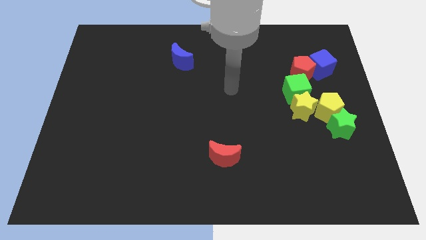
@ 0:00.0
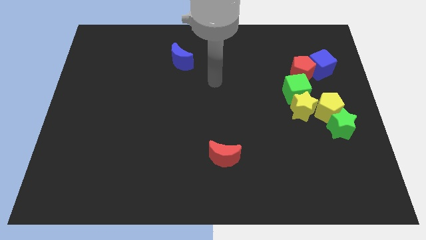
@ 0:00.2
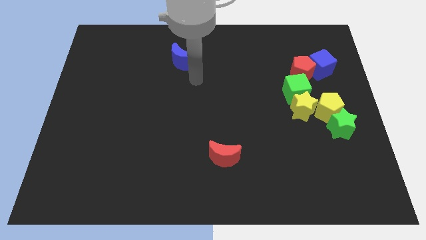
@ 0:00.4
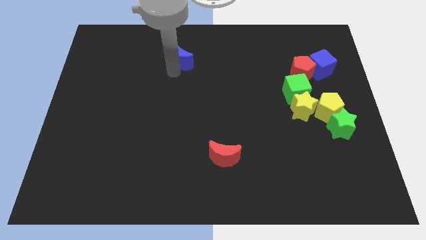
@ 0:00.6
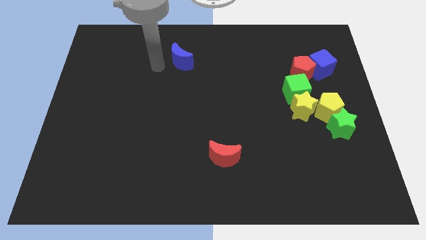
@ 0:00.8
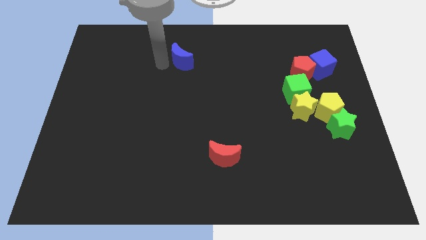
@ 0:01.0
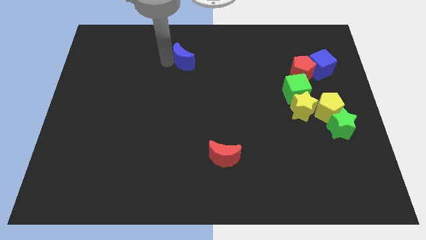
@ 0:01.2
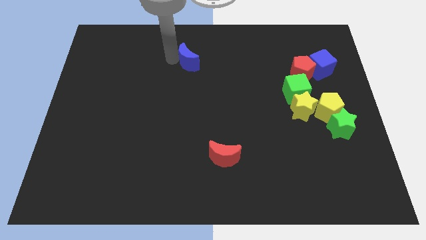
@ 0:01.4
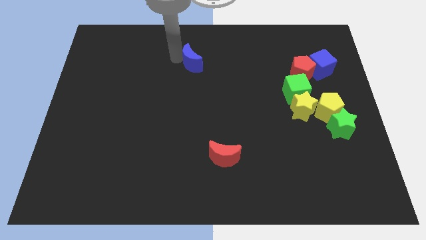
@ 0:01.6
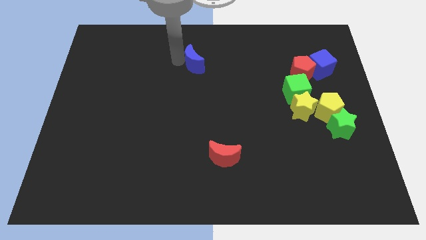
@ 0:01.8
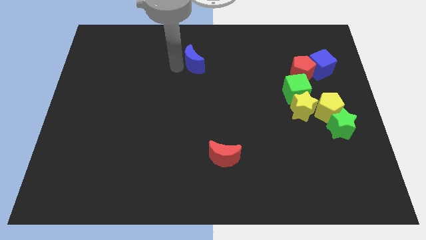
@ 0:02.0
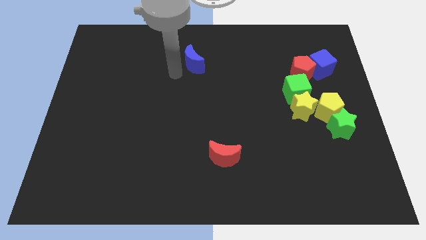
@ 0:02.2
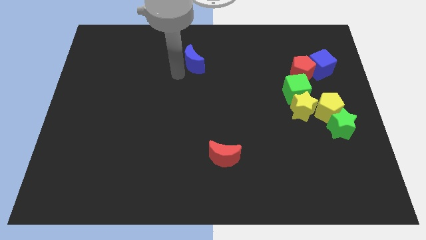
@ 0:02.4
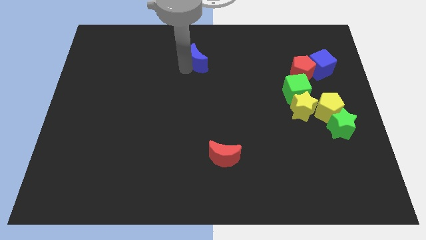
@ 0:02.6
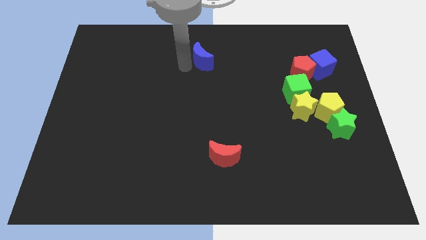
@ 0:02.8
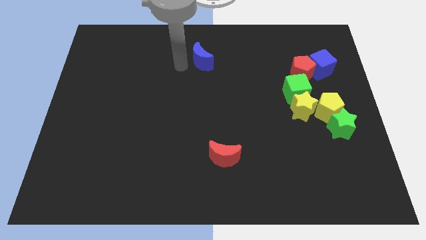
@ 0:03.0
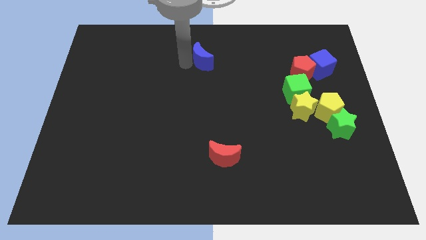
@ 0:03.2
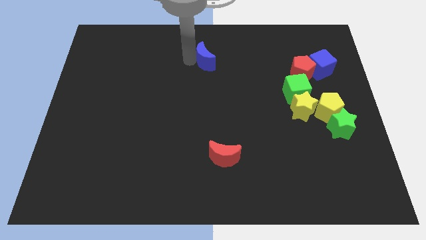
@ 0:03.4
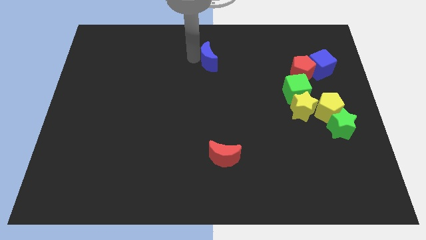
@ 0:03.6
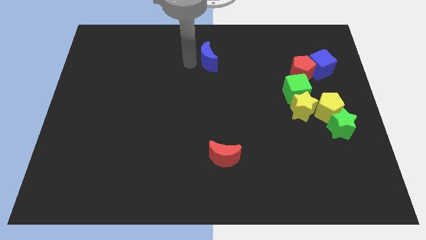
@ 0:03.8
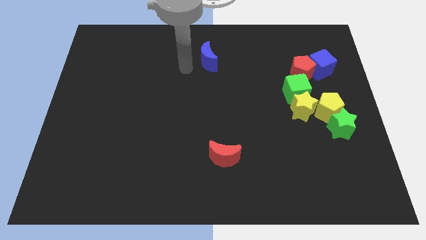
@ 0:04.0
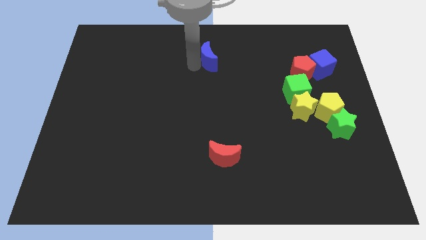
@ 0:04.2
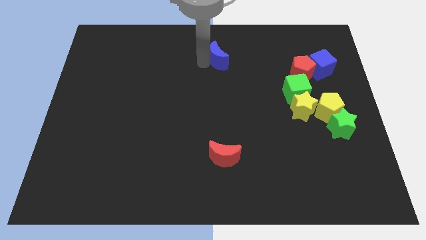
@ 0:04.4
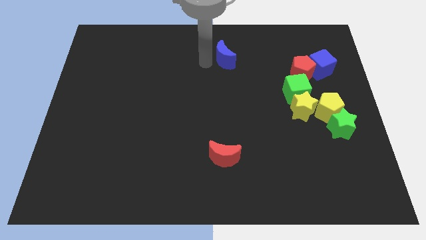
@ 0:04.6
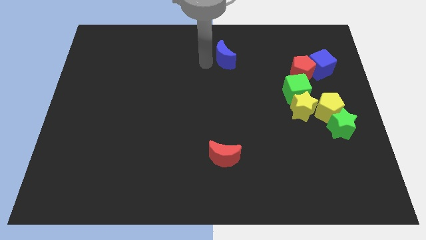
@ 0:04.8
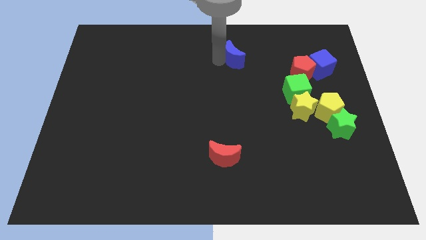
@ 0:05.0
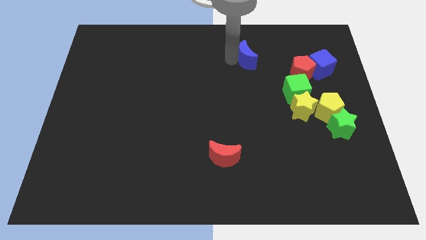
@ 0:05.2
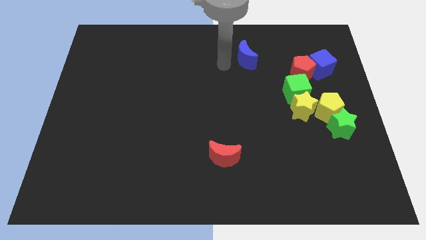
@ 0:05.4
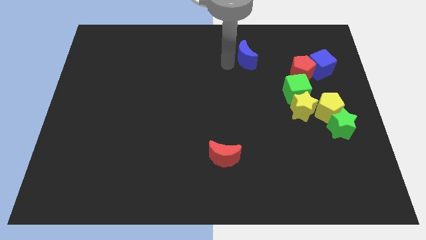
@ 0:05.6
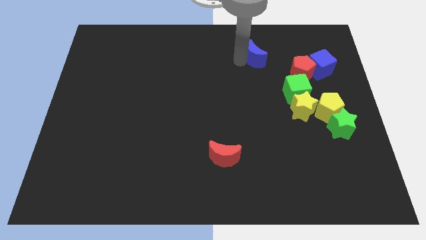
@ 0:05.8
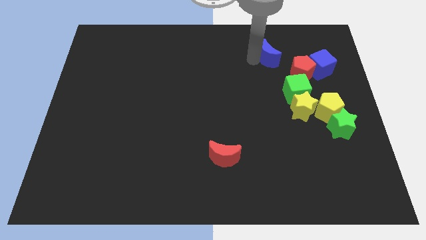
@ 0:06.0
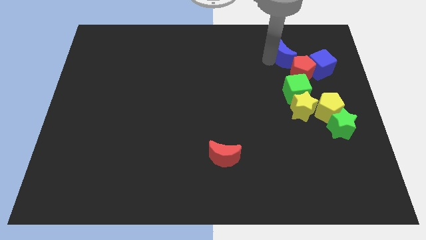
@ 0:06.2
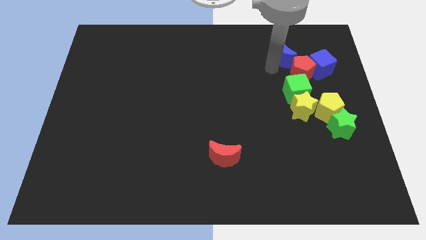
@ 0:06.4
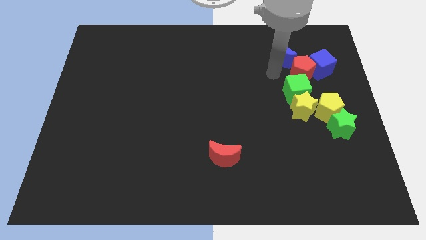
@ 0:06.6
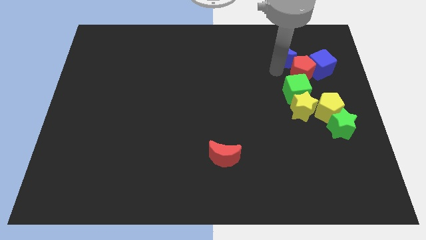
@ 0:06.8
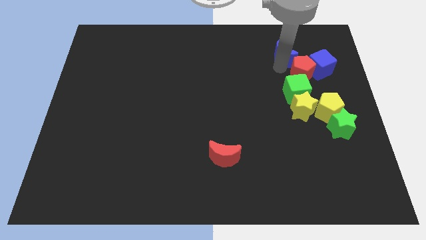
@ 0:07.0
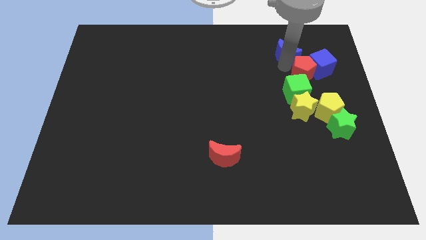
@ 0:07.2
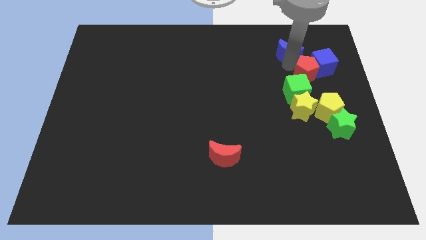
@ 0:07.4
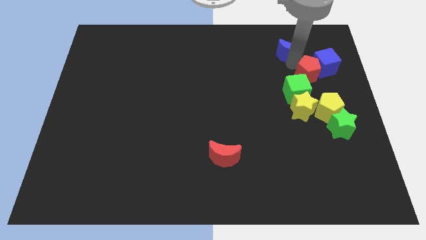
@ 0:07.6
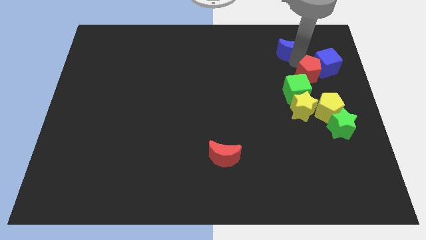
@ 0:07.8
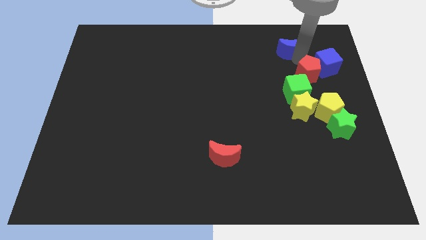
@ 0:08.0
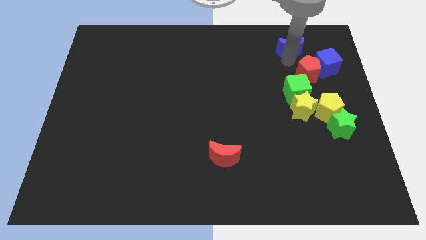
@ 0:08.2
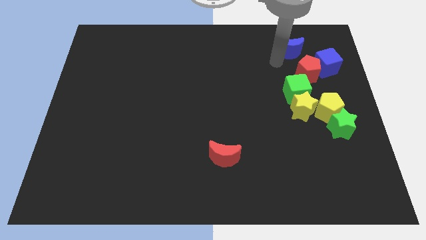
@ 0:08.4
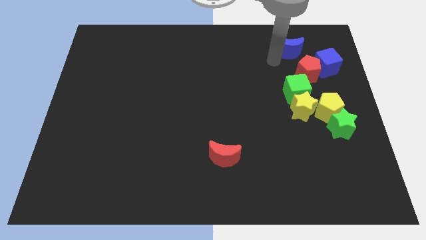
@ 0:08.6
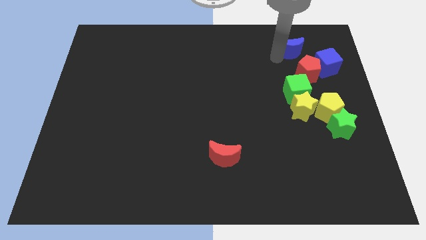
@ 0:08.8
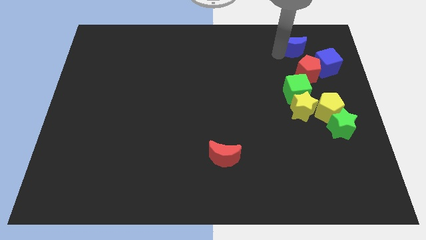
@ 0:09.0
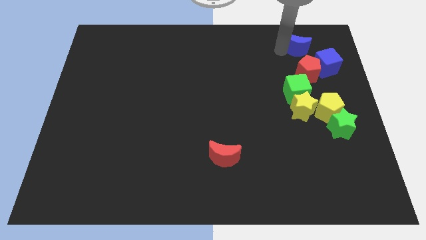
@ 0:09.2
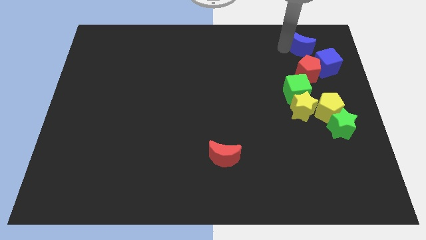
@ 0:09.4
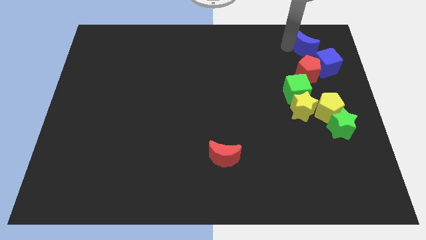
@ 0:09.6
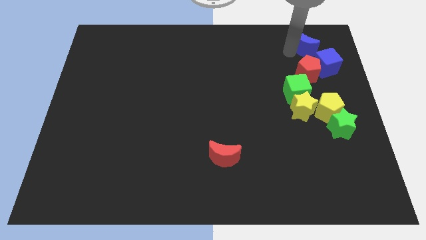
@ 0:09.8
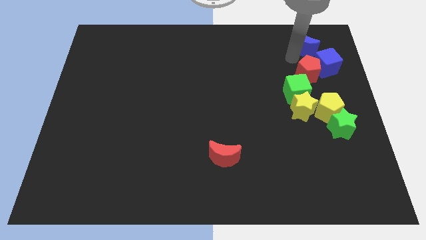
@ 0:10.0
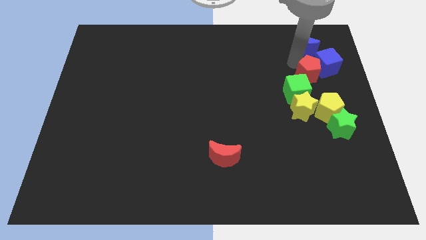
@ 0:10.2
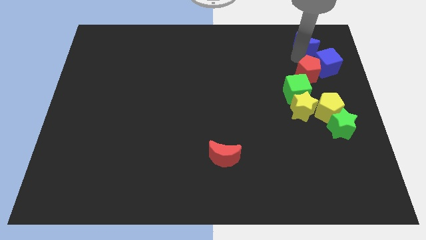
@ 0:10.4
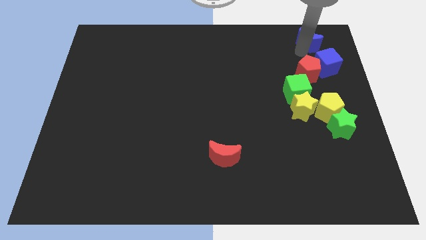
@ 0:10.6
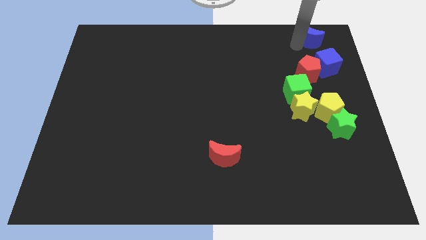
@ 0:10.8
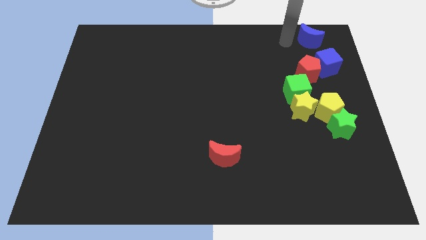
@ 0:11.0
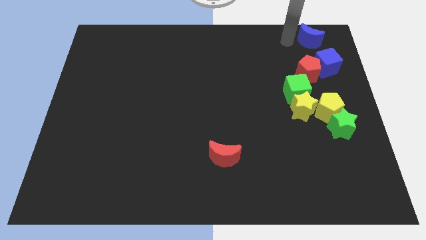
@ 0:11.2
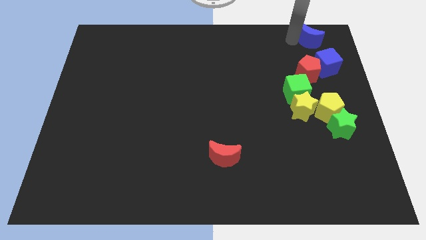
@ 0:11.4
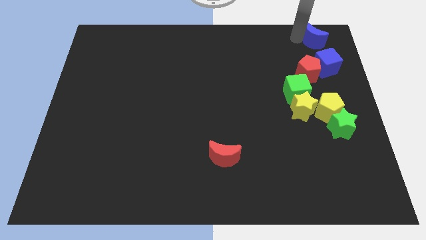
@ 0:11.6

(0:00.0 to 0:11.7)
put the blue moon to the top right corner

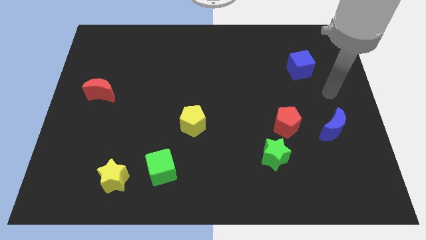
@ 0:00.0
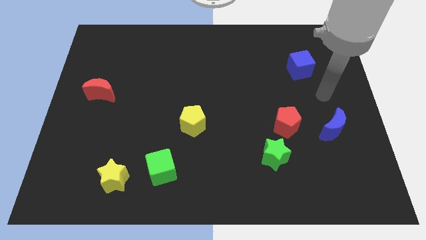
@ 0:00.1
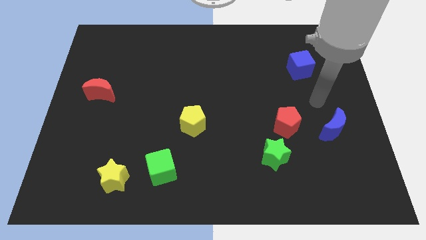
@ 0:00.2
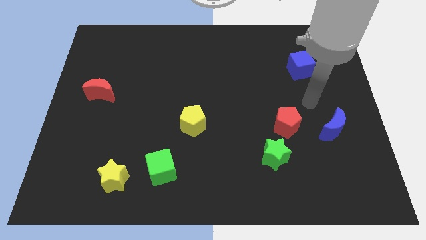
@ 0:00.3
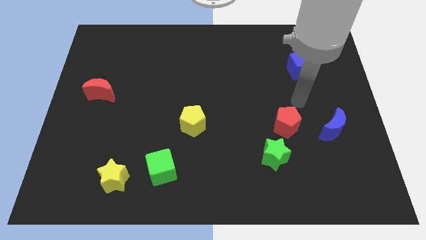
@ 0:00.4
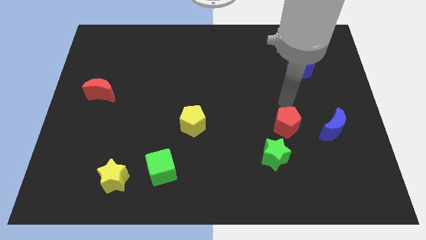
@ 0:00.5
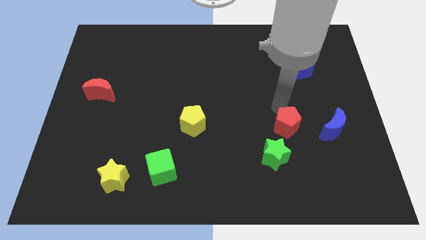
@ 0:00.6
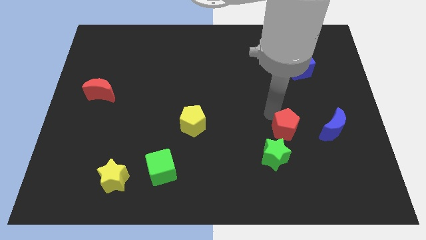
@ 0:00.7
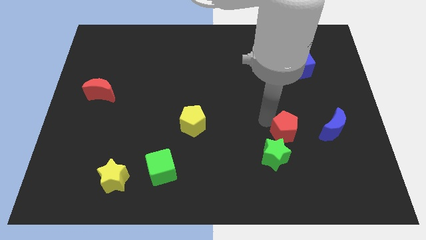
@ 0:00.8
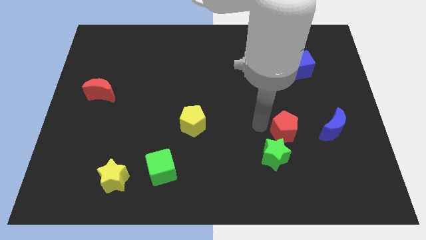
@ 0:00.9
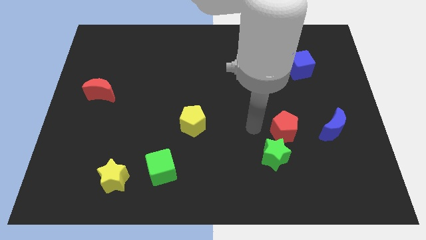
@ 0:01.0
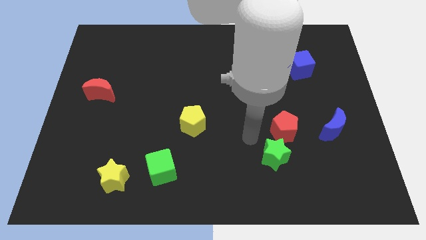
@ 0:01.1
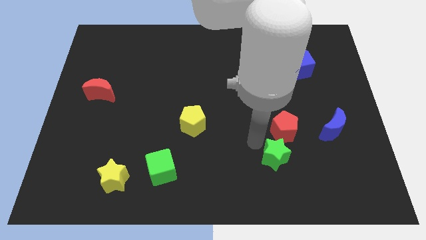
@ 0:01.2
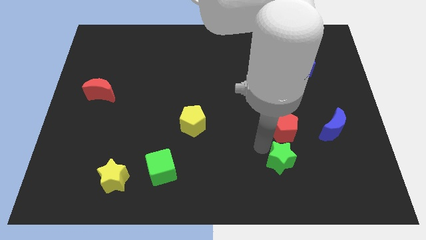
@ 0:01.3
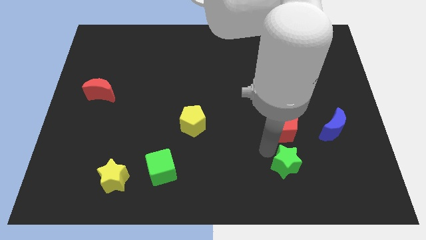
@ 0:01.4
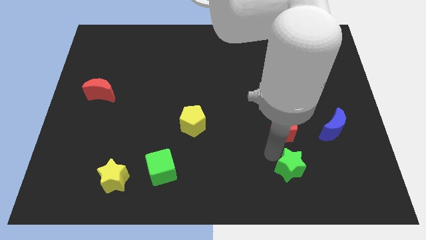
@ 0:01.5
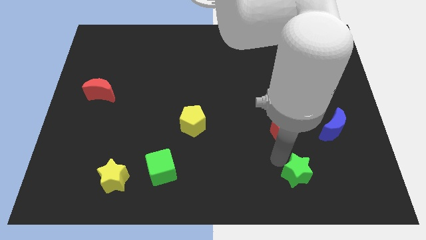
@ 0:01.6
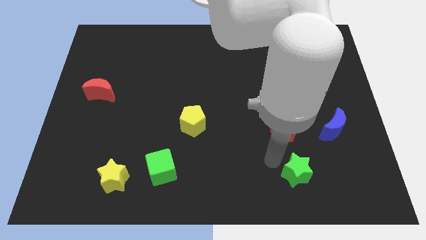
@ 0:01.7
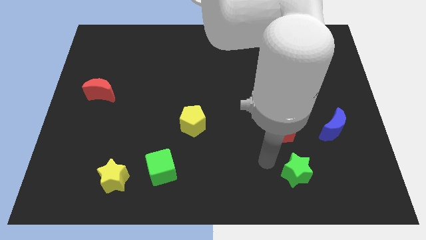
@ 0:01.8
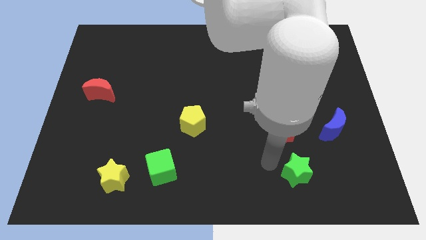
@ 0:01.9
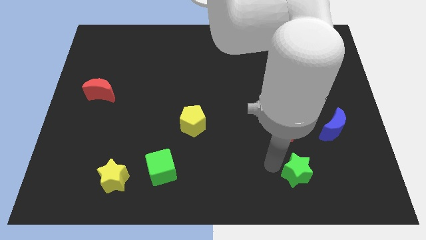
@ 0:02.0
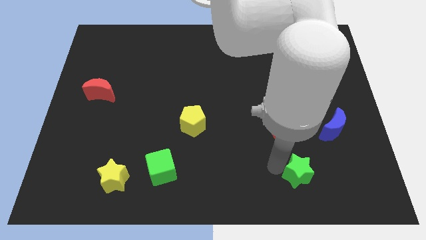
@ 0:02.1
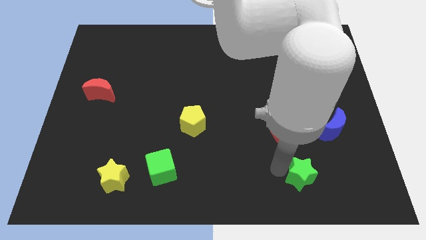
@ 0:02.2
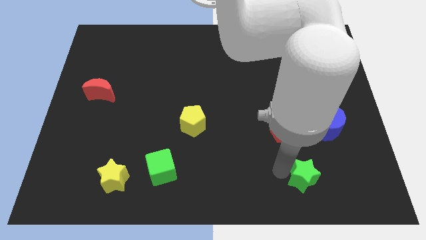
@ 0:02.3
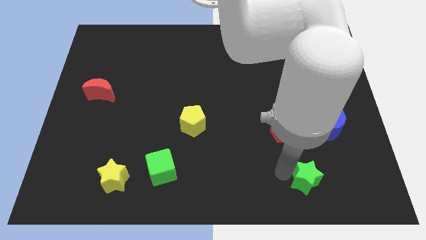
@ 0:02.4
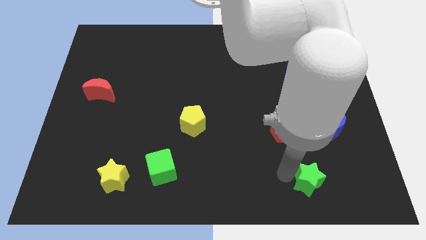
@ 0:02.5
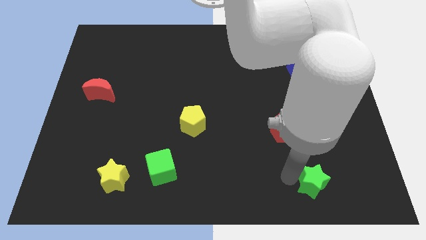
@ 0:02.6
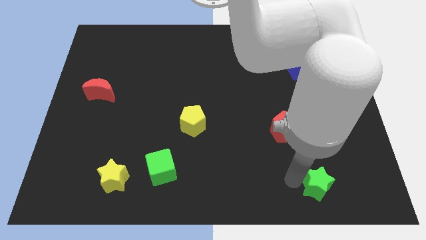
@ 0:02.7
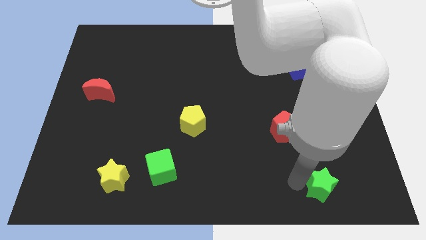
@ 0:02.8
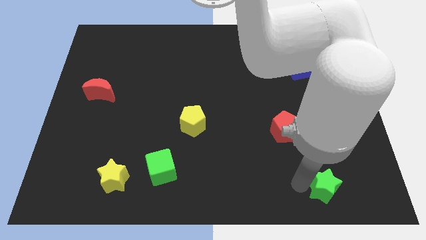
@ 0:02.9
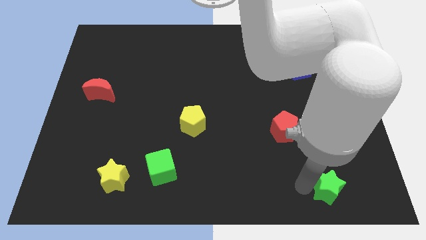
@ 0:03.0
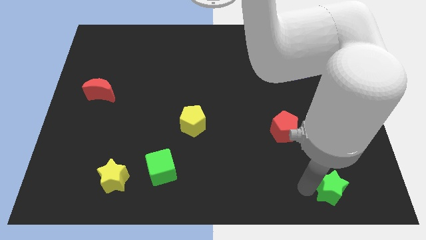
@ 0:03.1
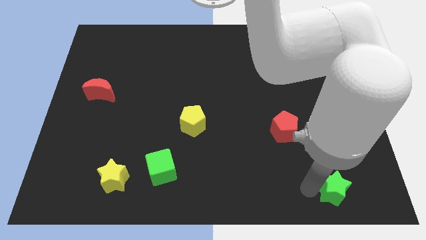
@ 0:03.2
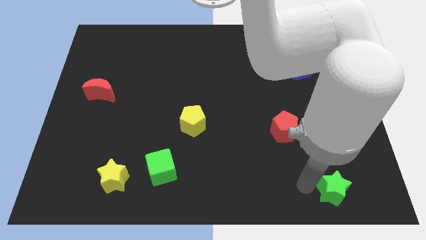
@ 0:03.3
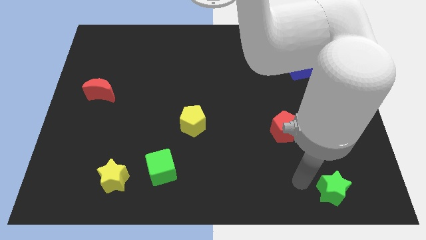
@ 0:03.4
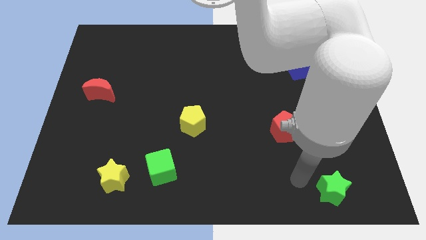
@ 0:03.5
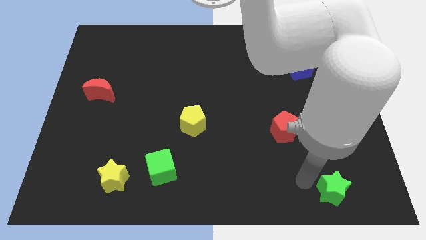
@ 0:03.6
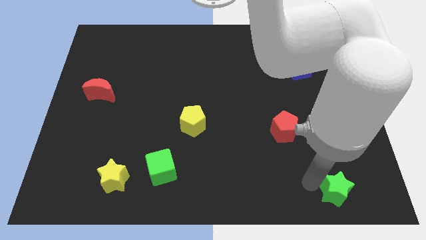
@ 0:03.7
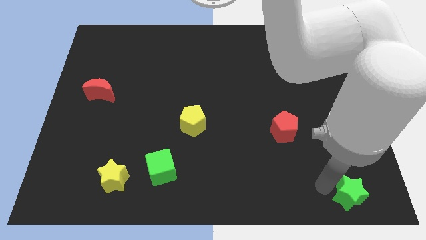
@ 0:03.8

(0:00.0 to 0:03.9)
slide the green star to the bottom right corner
